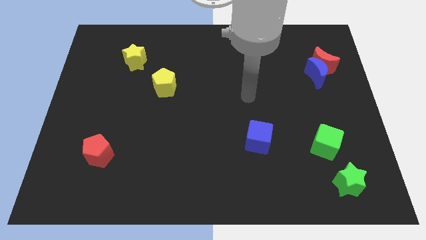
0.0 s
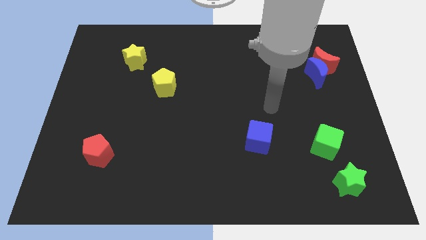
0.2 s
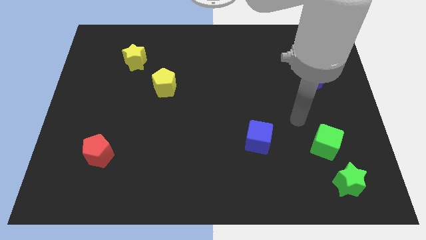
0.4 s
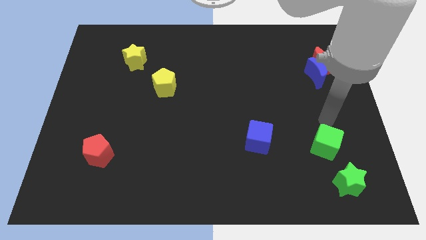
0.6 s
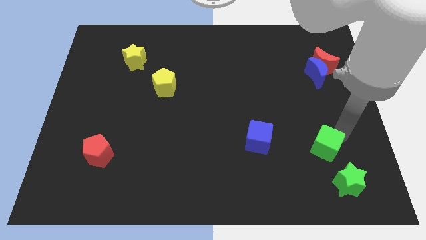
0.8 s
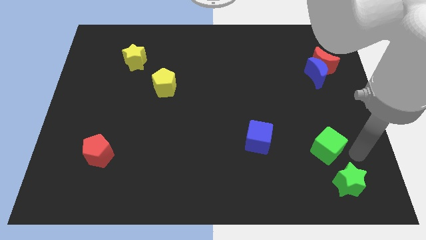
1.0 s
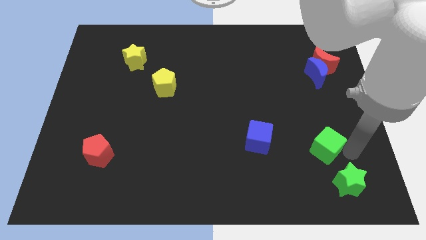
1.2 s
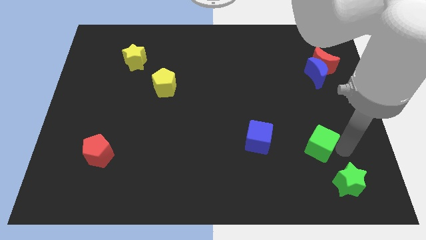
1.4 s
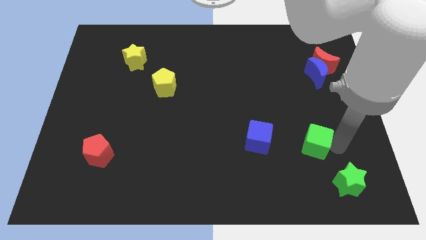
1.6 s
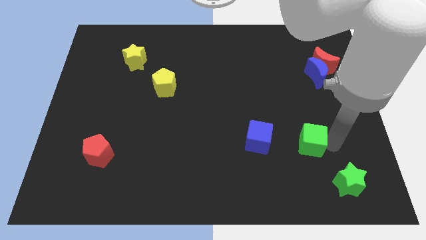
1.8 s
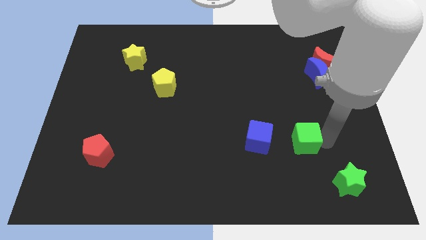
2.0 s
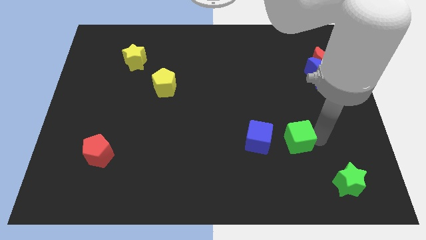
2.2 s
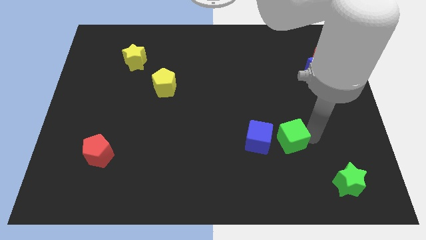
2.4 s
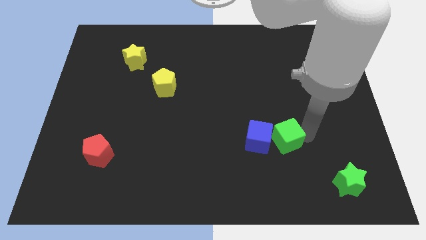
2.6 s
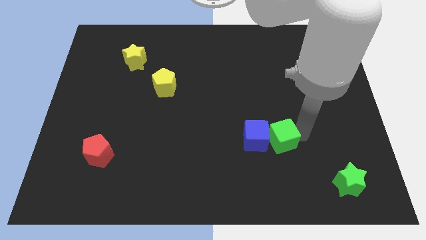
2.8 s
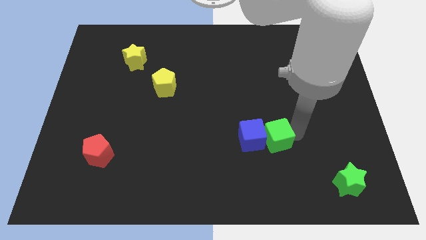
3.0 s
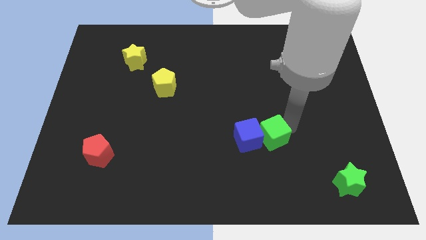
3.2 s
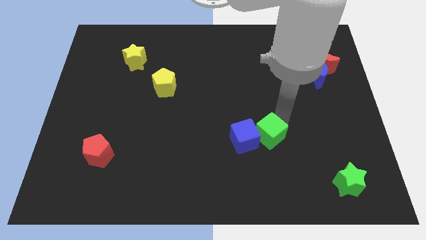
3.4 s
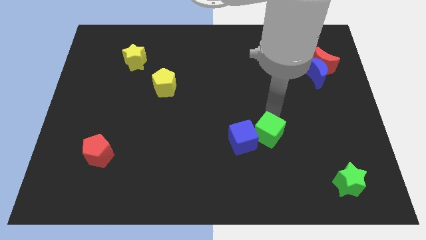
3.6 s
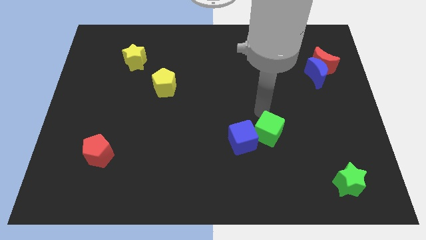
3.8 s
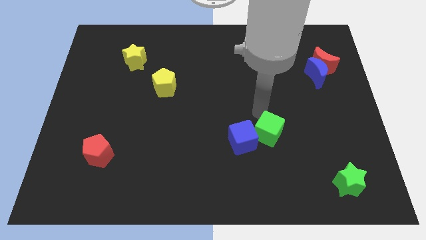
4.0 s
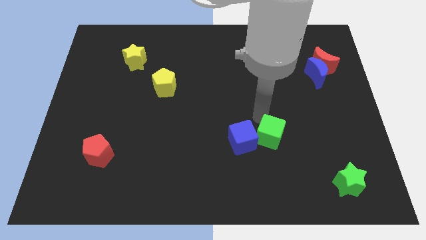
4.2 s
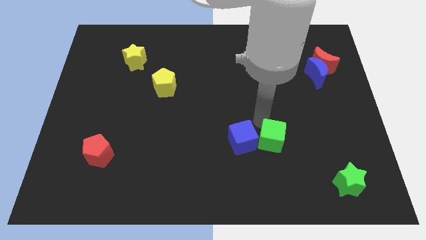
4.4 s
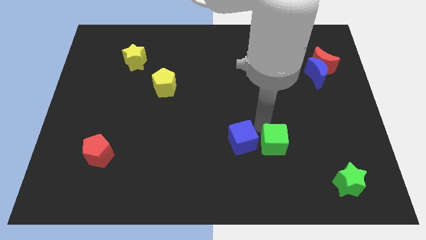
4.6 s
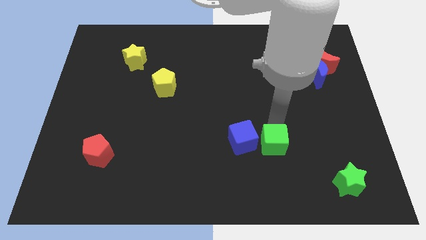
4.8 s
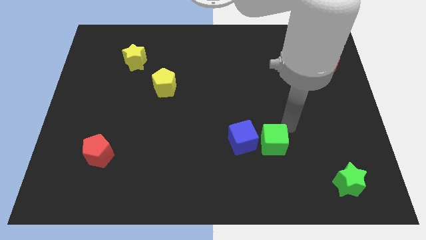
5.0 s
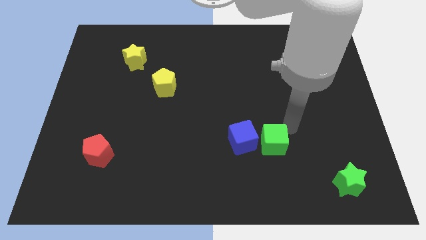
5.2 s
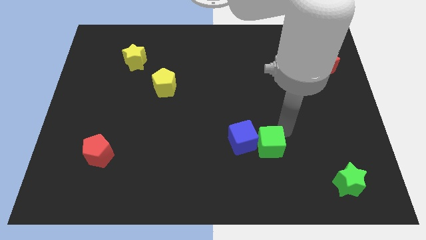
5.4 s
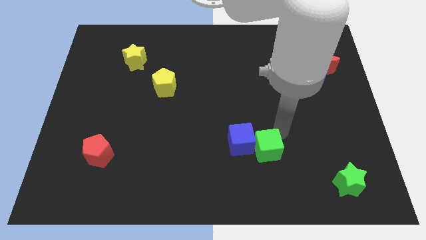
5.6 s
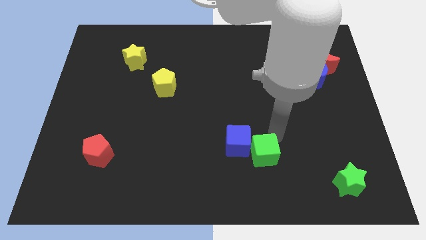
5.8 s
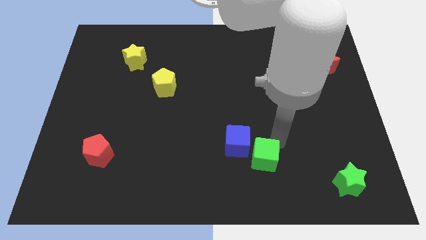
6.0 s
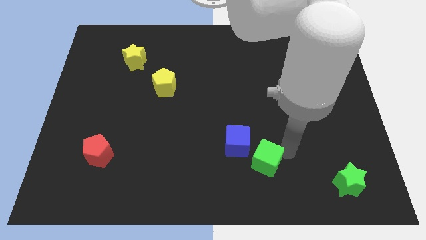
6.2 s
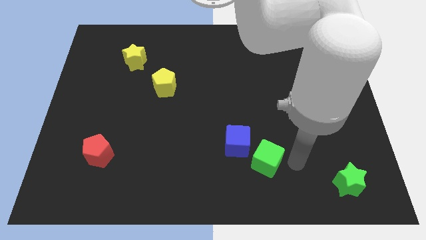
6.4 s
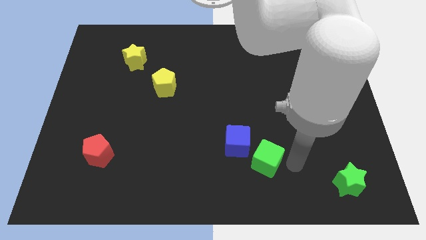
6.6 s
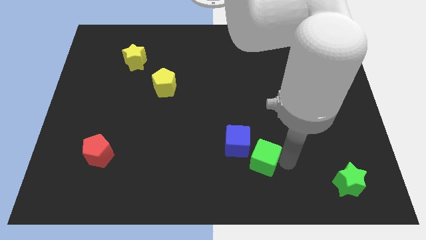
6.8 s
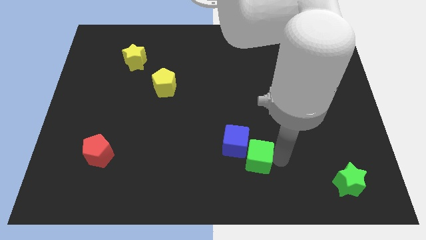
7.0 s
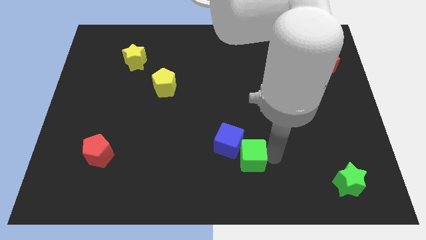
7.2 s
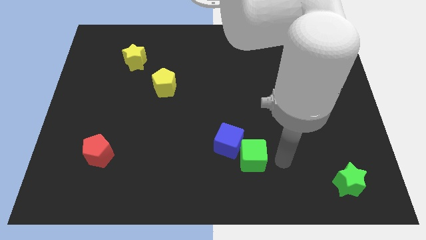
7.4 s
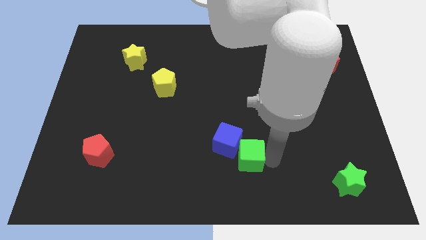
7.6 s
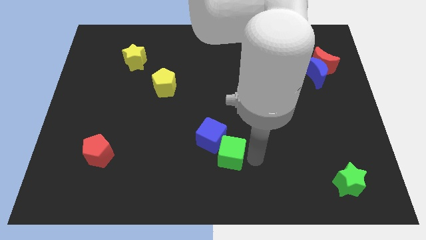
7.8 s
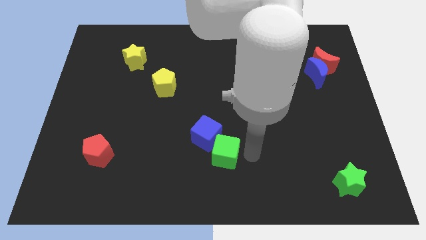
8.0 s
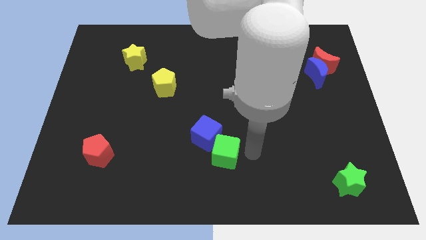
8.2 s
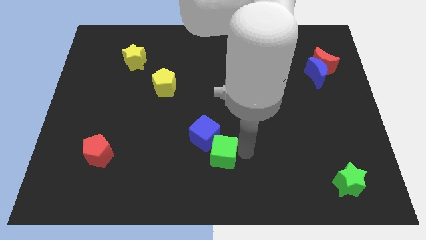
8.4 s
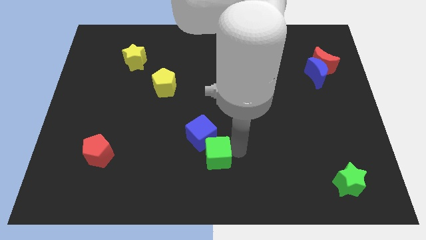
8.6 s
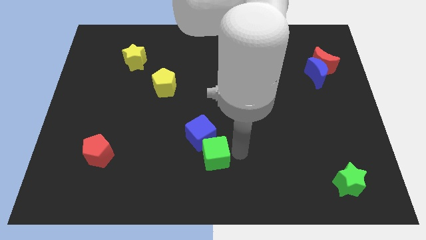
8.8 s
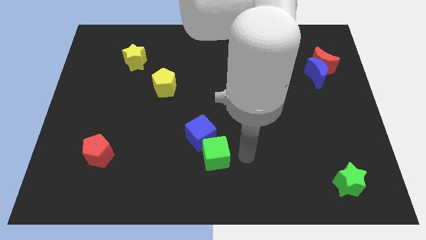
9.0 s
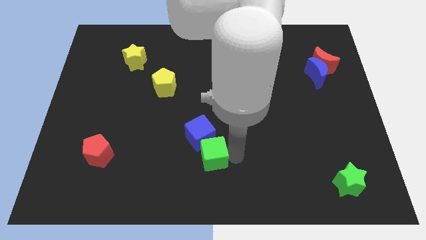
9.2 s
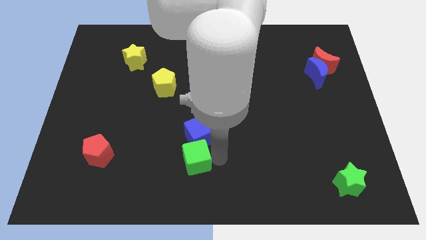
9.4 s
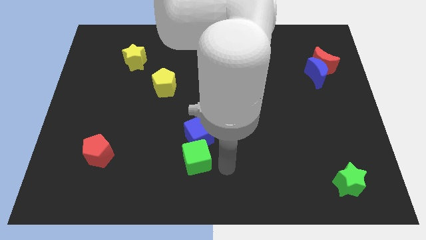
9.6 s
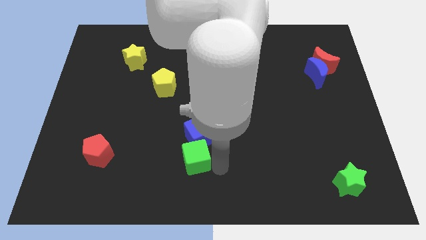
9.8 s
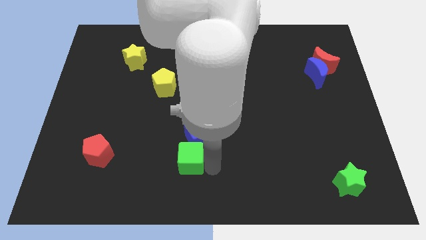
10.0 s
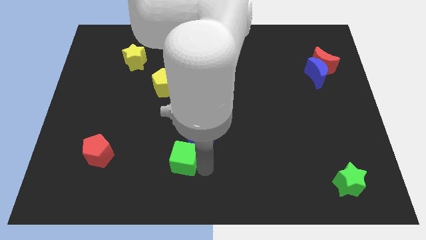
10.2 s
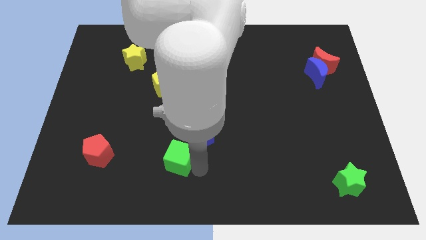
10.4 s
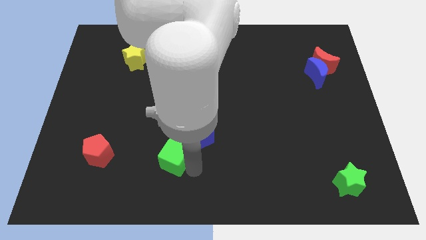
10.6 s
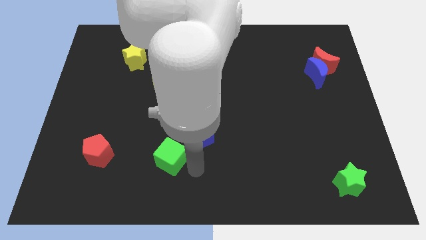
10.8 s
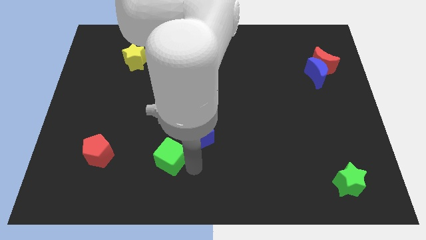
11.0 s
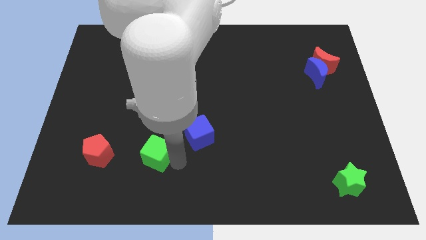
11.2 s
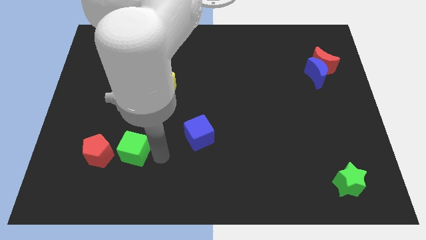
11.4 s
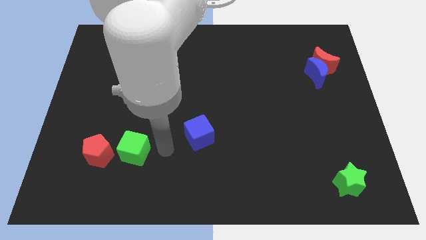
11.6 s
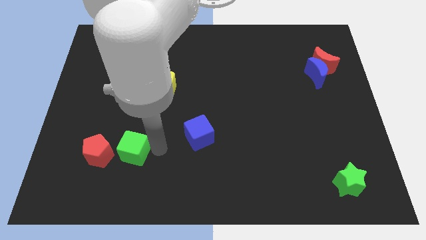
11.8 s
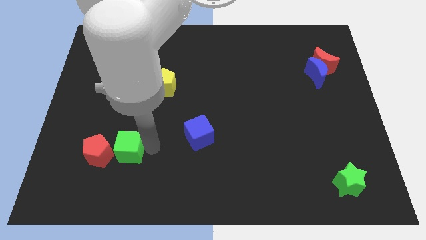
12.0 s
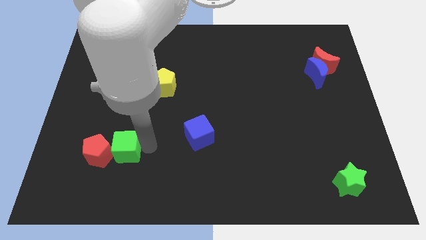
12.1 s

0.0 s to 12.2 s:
put the green cube next to the red pentagon

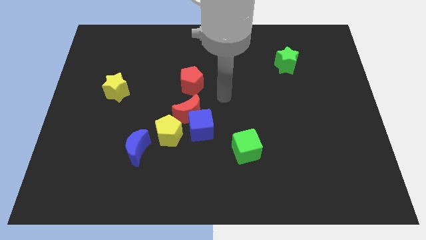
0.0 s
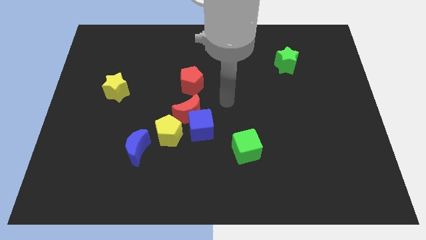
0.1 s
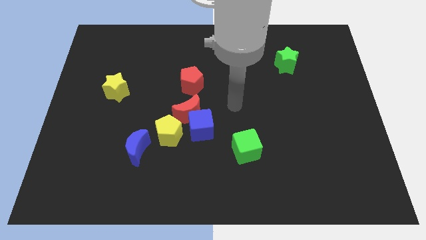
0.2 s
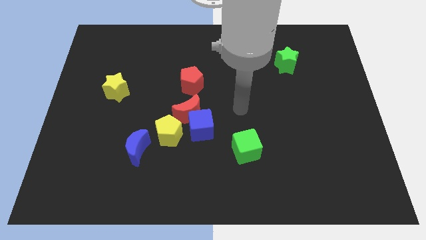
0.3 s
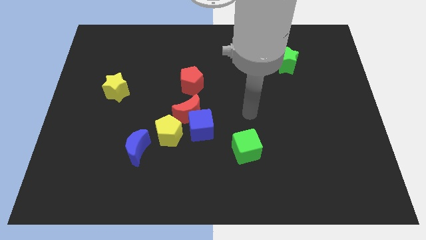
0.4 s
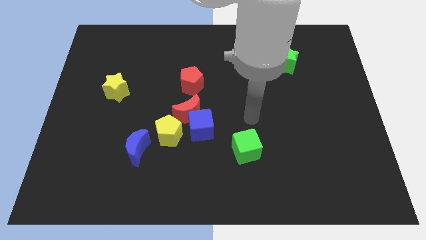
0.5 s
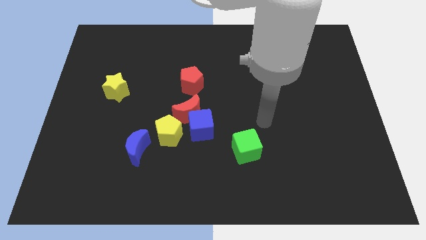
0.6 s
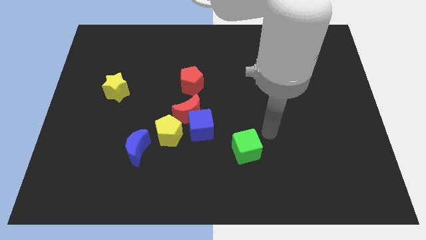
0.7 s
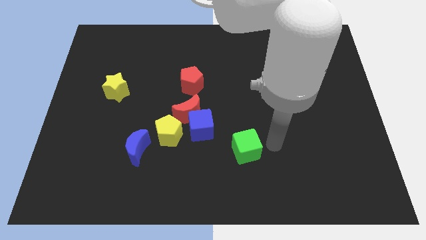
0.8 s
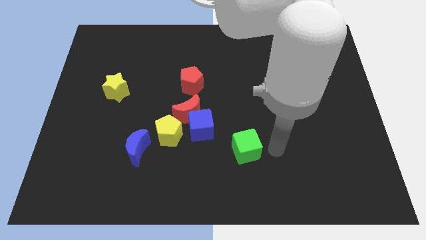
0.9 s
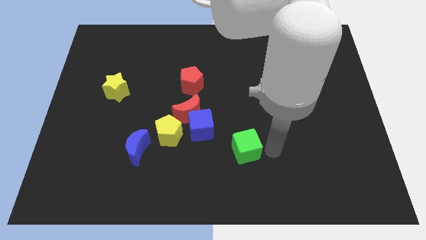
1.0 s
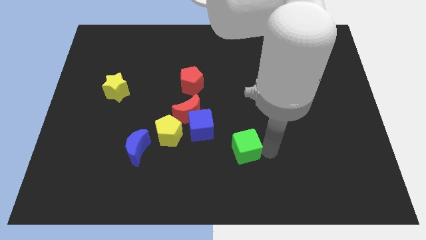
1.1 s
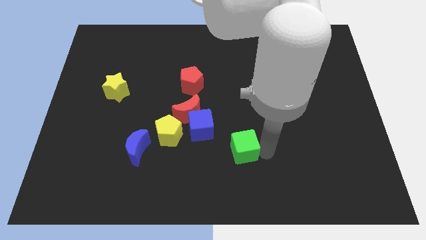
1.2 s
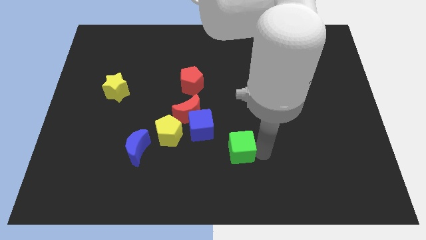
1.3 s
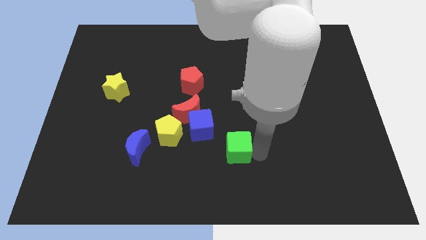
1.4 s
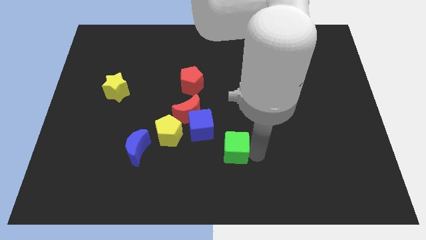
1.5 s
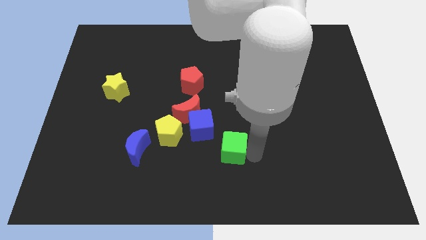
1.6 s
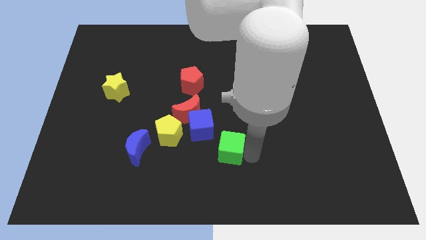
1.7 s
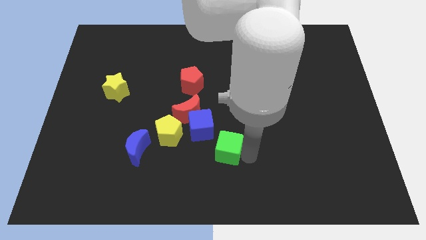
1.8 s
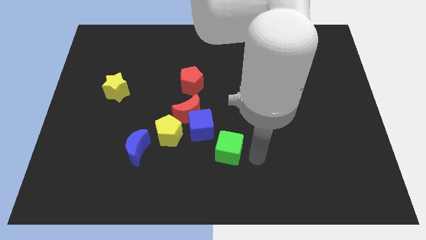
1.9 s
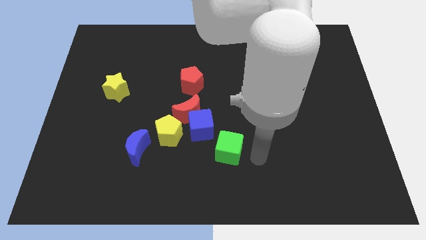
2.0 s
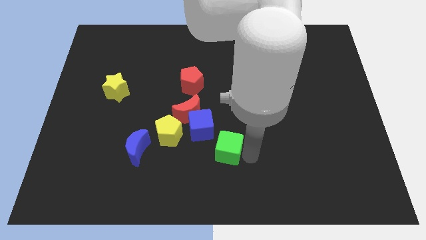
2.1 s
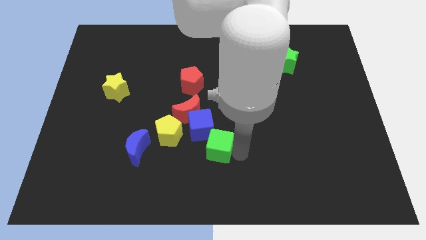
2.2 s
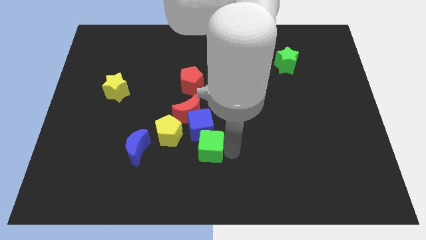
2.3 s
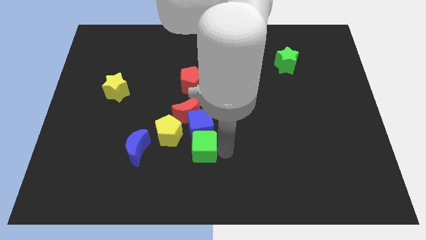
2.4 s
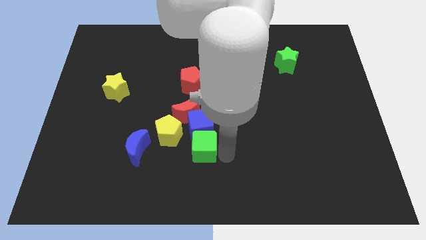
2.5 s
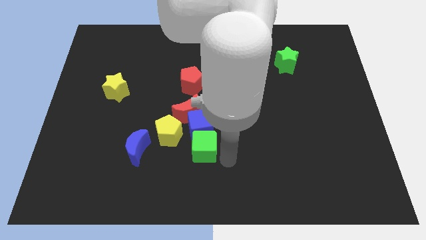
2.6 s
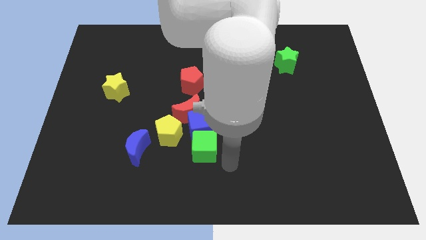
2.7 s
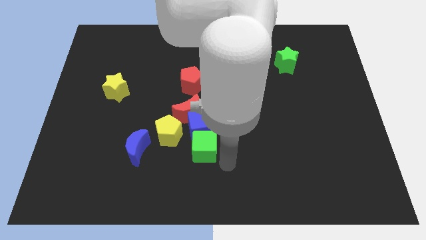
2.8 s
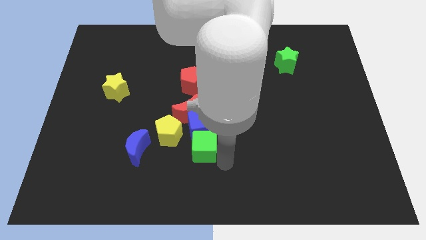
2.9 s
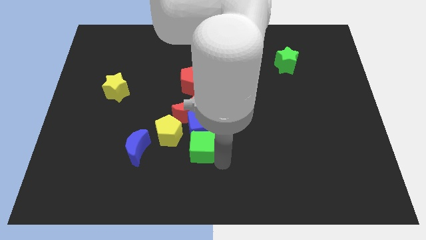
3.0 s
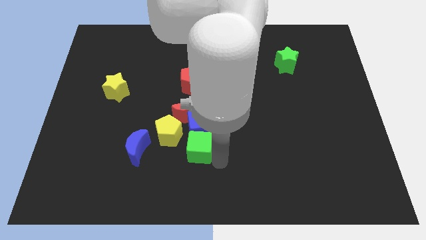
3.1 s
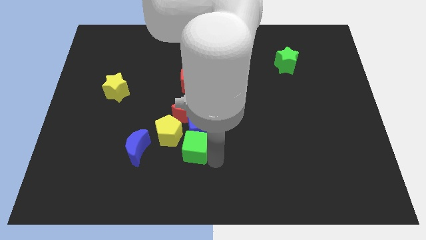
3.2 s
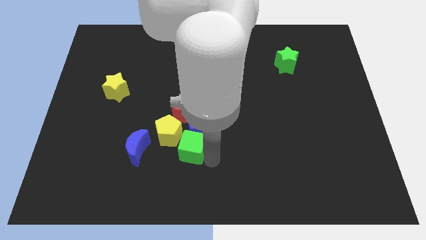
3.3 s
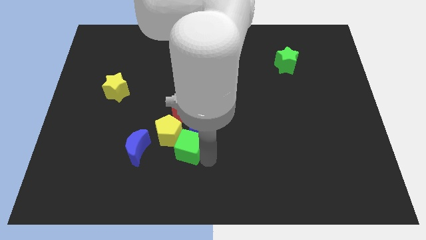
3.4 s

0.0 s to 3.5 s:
slide the green cube close to the yellow pentagon
